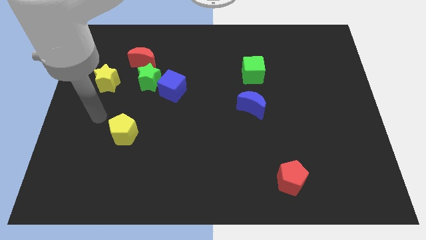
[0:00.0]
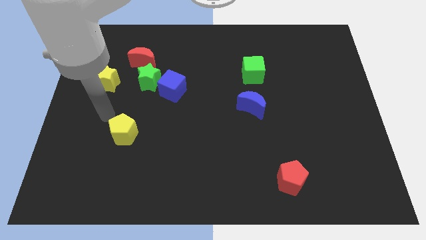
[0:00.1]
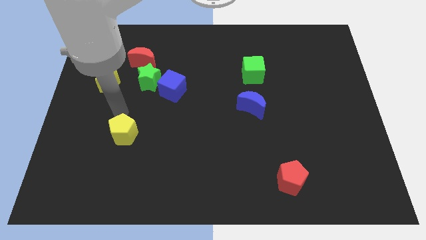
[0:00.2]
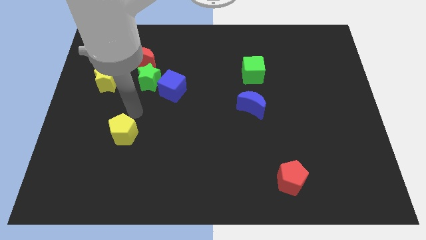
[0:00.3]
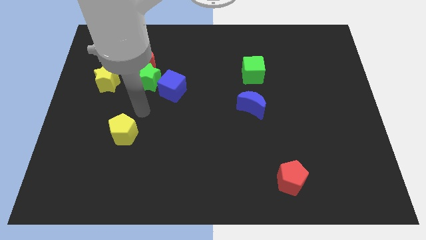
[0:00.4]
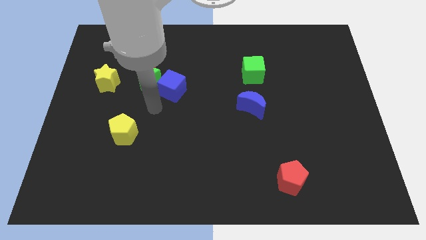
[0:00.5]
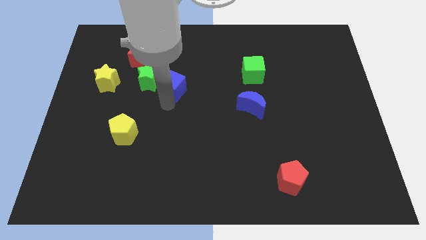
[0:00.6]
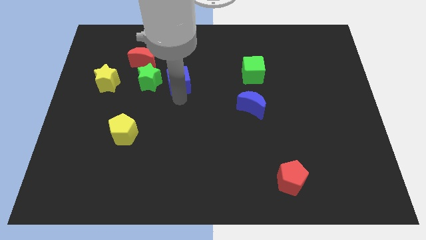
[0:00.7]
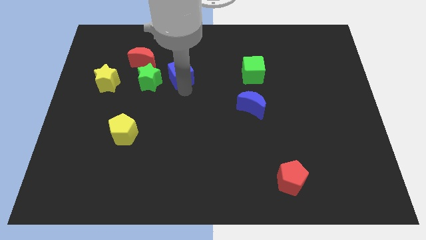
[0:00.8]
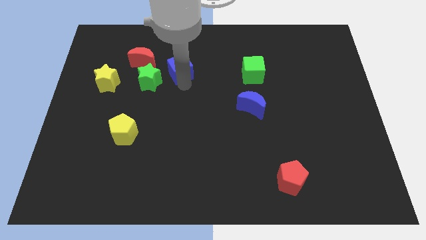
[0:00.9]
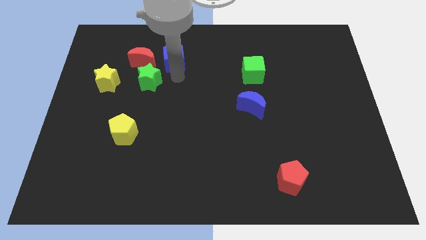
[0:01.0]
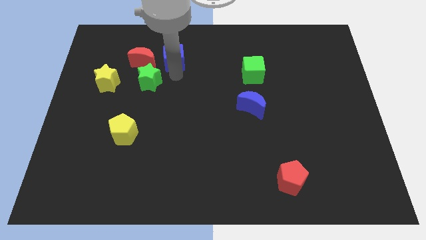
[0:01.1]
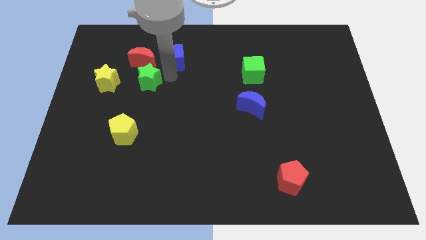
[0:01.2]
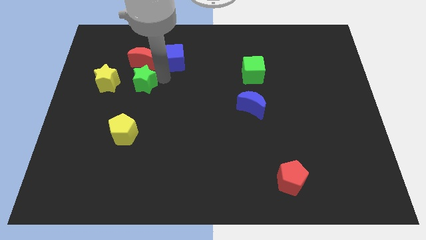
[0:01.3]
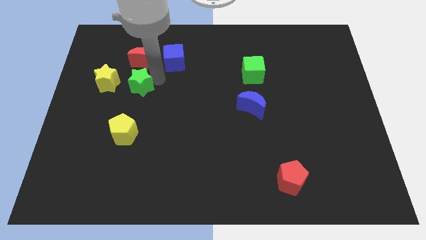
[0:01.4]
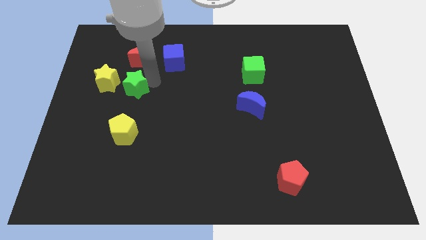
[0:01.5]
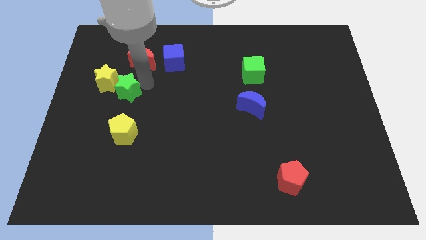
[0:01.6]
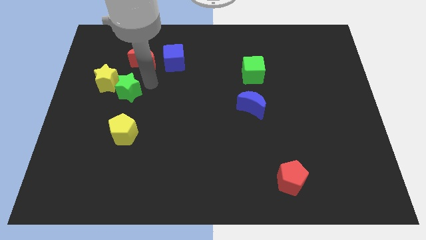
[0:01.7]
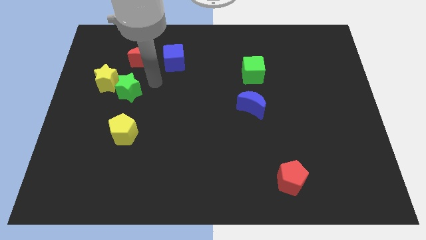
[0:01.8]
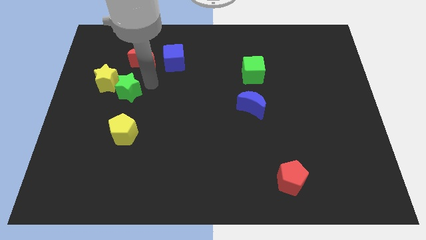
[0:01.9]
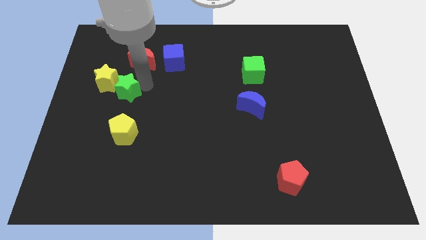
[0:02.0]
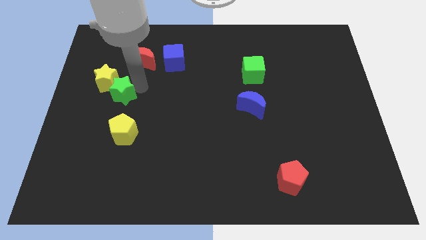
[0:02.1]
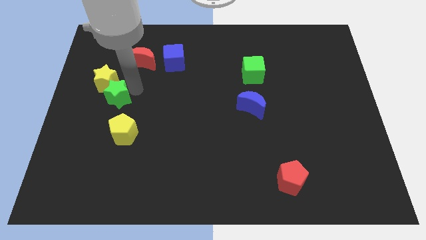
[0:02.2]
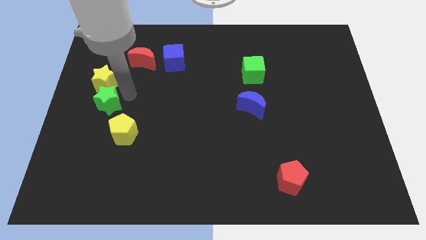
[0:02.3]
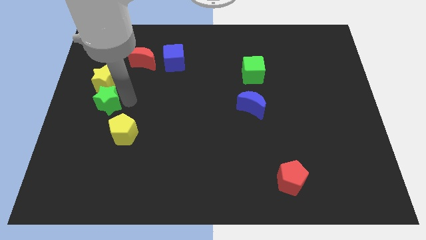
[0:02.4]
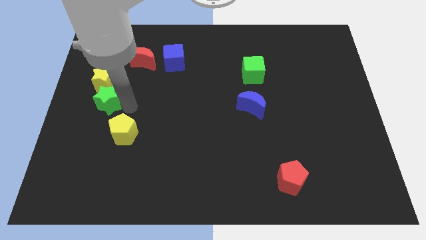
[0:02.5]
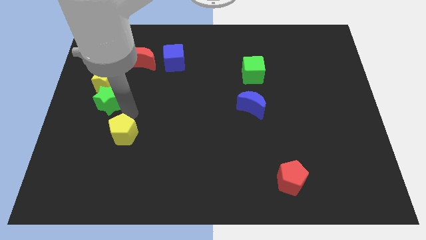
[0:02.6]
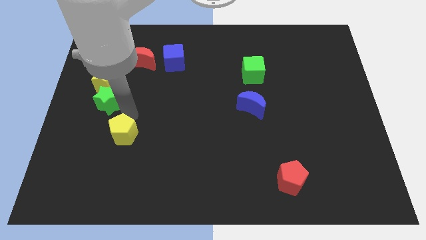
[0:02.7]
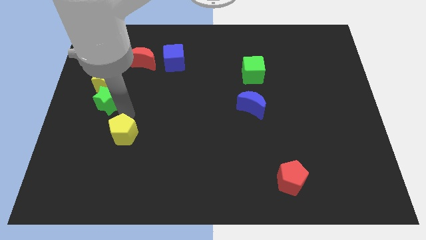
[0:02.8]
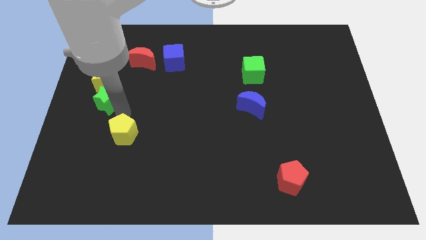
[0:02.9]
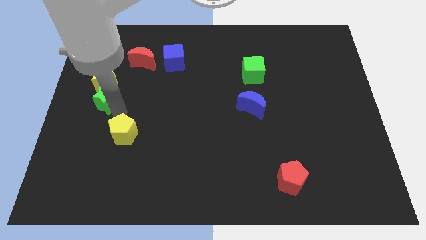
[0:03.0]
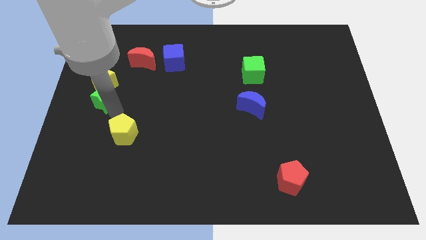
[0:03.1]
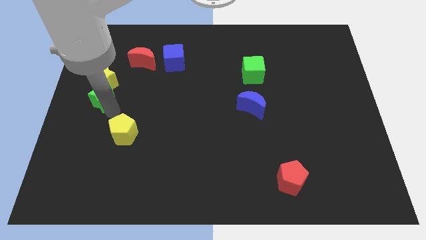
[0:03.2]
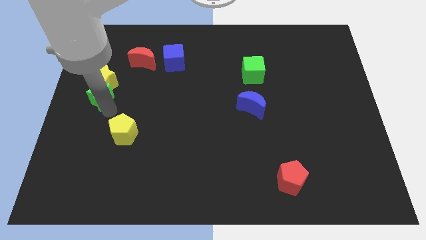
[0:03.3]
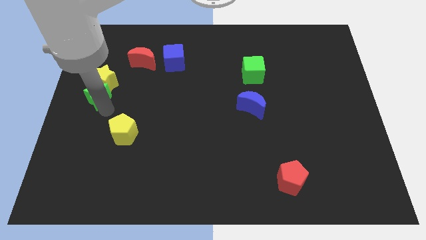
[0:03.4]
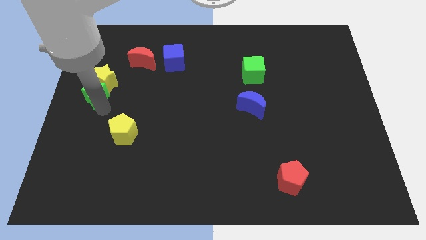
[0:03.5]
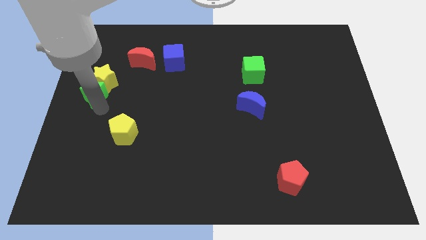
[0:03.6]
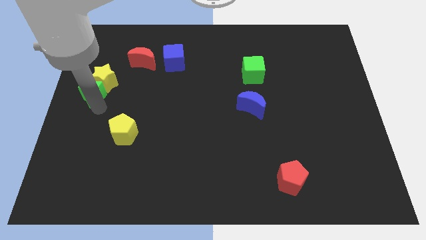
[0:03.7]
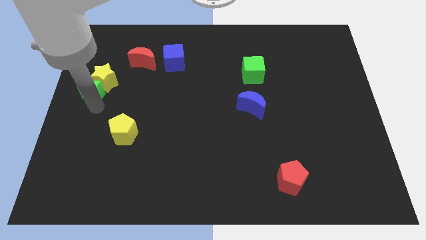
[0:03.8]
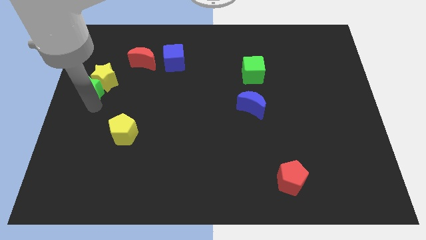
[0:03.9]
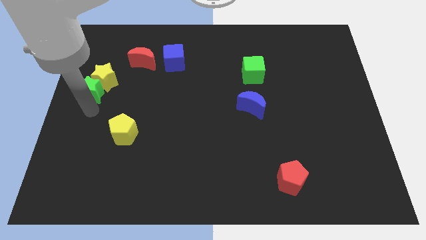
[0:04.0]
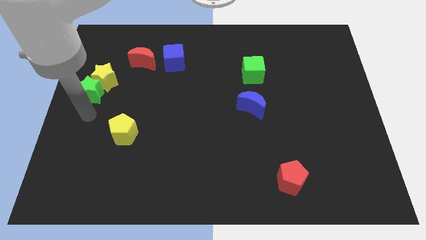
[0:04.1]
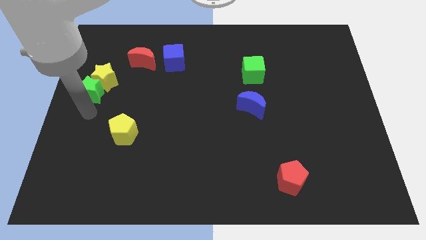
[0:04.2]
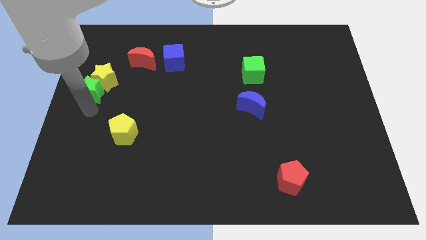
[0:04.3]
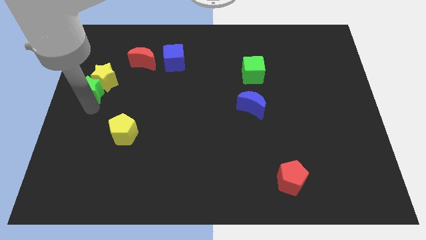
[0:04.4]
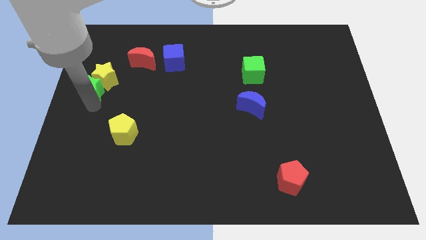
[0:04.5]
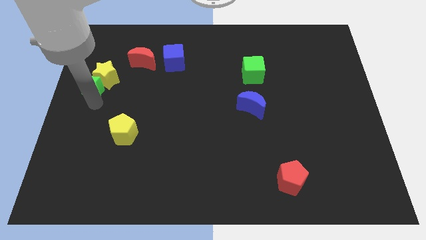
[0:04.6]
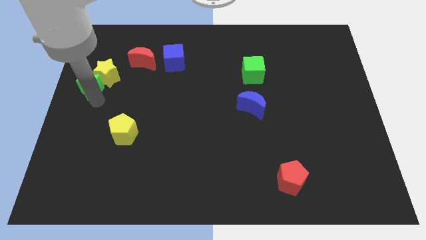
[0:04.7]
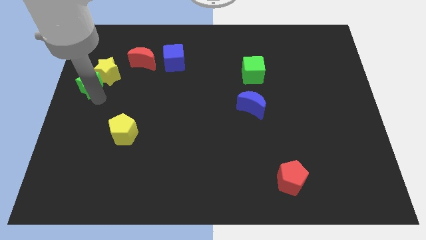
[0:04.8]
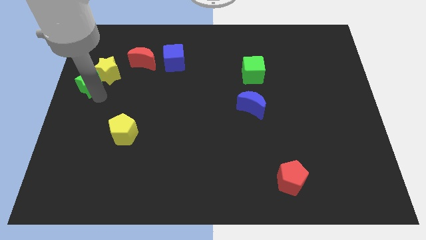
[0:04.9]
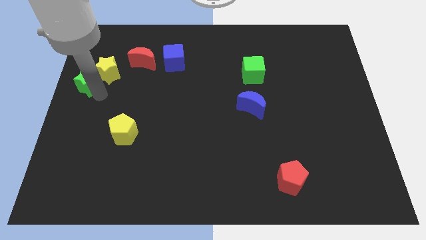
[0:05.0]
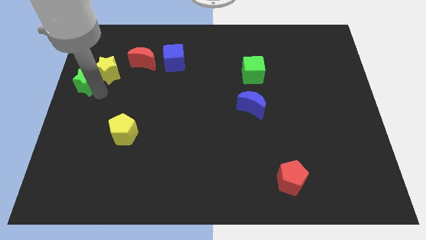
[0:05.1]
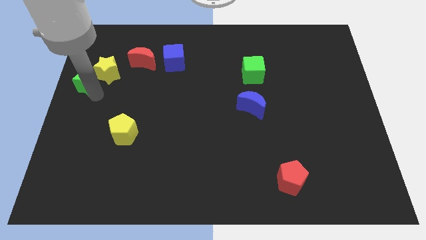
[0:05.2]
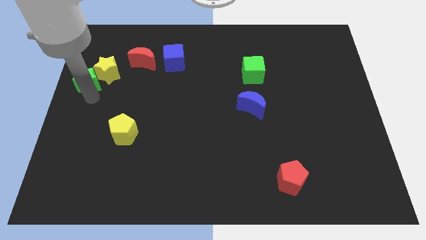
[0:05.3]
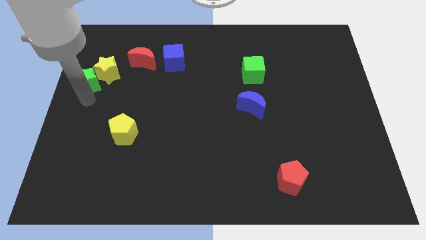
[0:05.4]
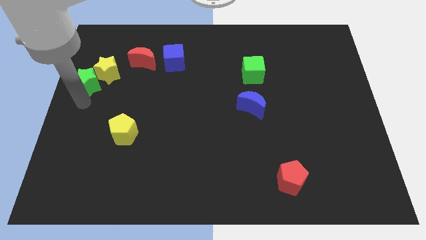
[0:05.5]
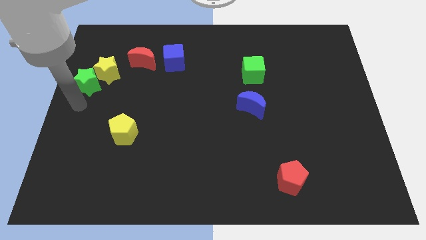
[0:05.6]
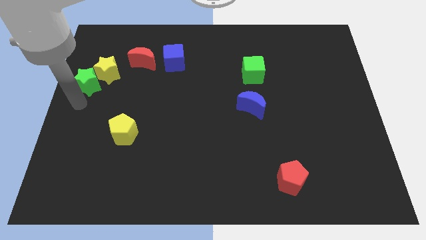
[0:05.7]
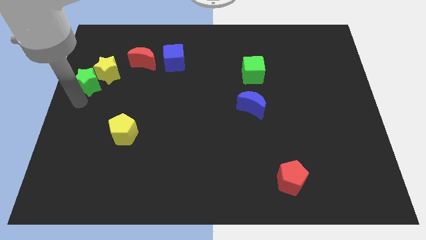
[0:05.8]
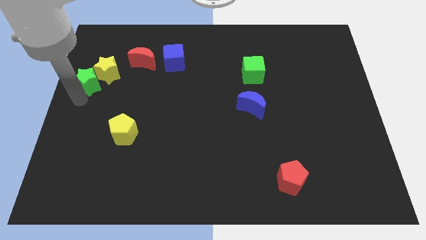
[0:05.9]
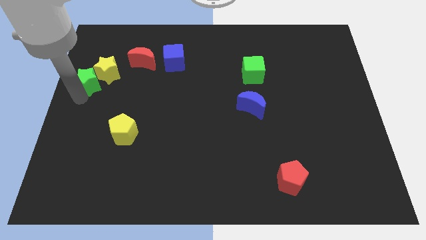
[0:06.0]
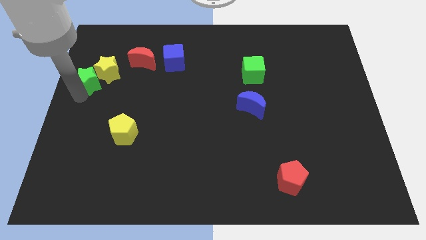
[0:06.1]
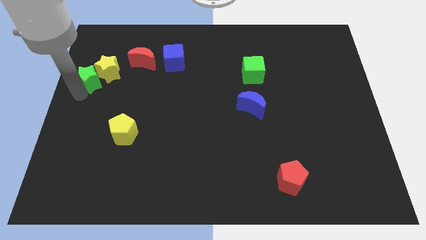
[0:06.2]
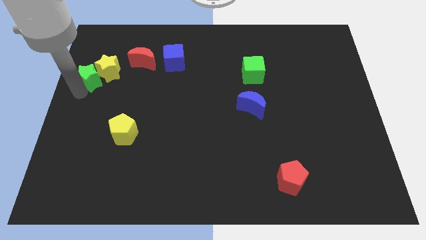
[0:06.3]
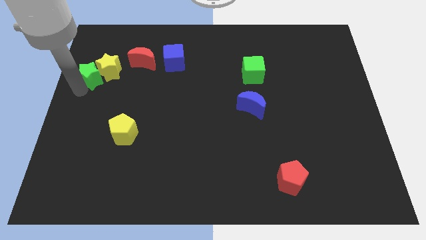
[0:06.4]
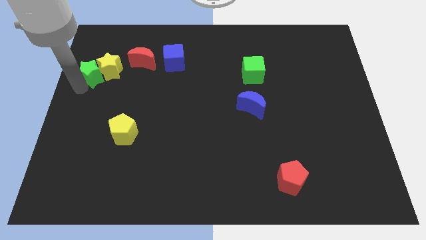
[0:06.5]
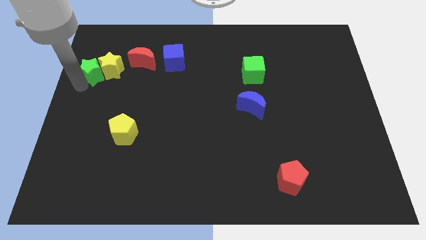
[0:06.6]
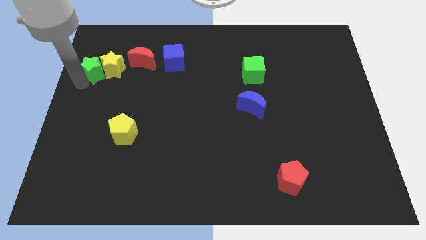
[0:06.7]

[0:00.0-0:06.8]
put the green star left of the red moon
